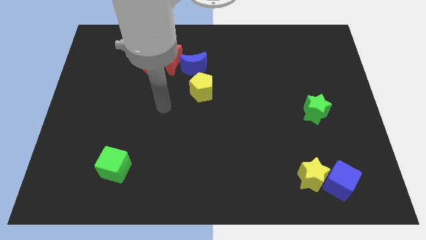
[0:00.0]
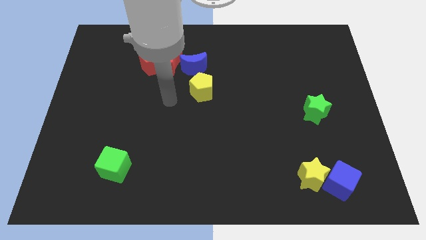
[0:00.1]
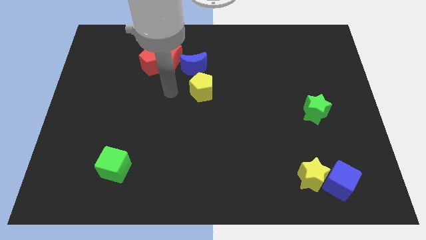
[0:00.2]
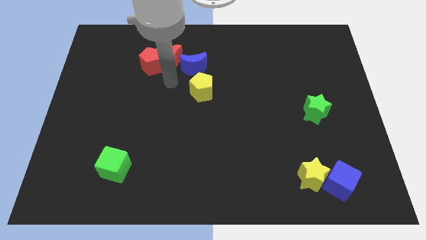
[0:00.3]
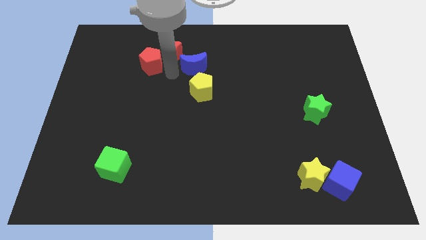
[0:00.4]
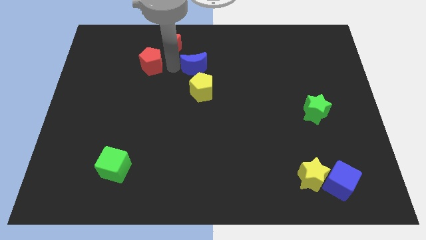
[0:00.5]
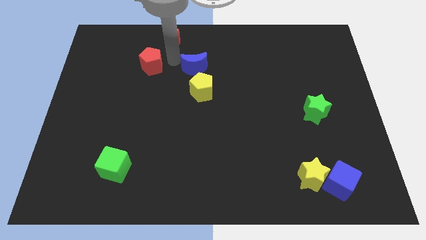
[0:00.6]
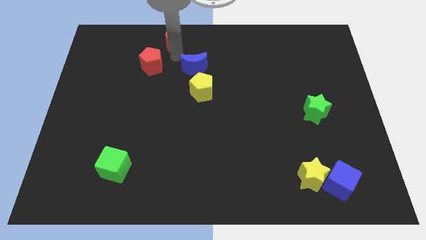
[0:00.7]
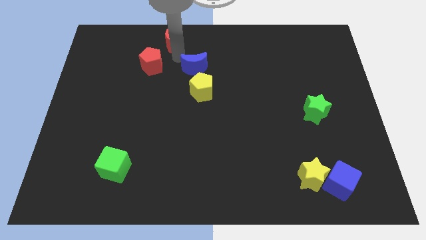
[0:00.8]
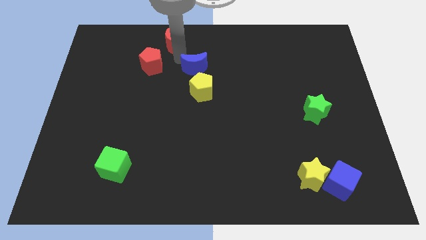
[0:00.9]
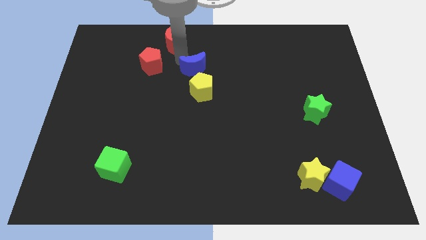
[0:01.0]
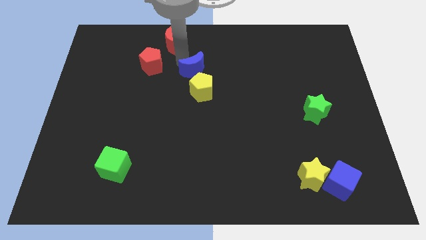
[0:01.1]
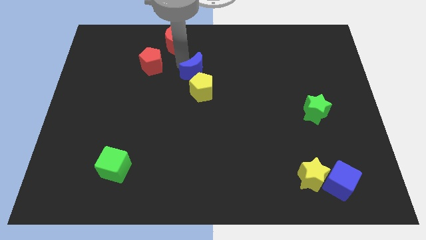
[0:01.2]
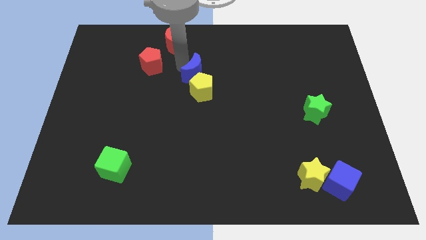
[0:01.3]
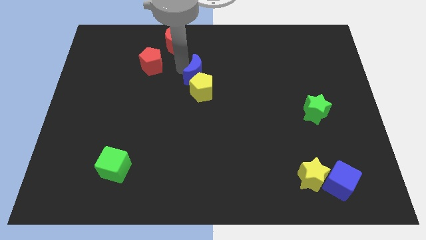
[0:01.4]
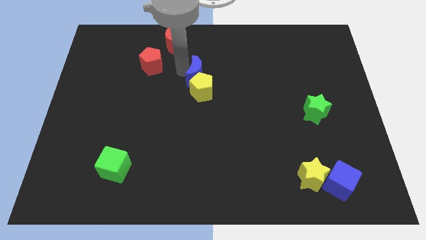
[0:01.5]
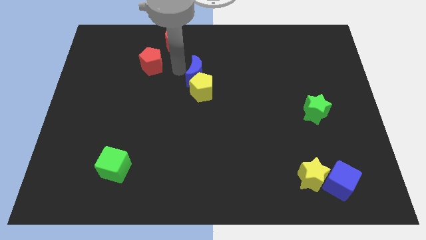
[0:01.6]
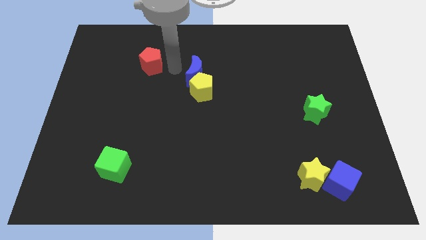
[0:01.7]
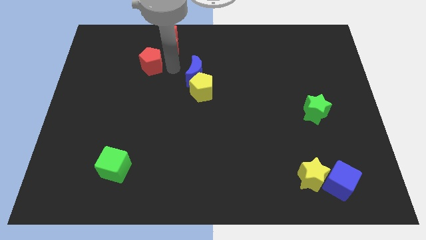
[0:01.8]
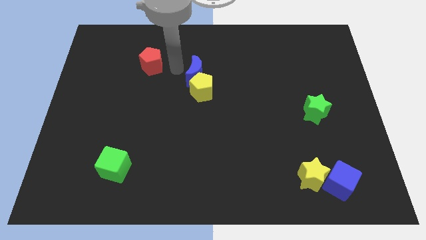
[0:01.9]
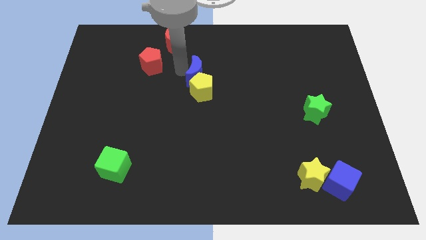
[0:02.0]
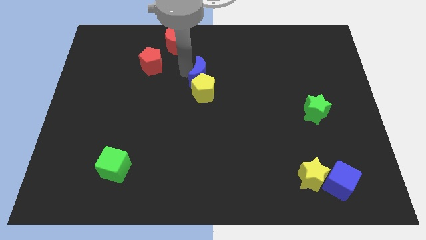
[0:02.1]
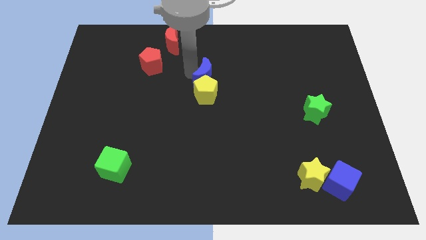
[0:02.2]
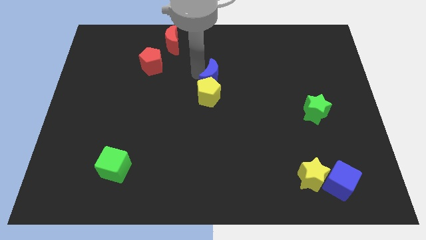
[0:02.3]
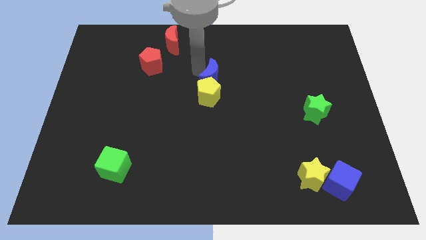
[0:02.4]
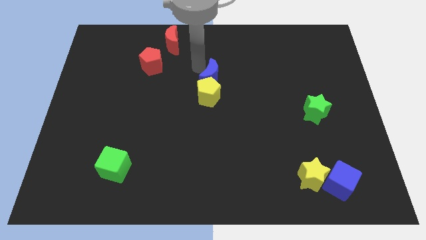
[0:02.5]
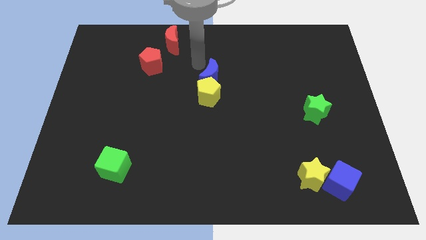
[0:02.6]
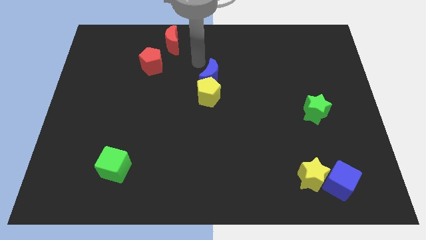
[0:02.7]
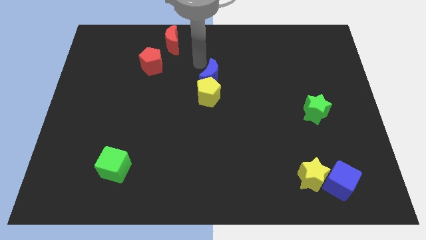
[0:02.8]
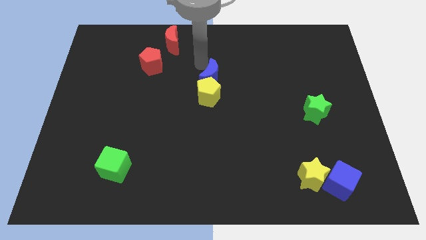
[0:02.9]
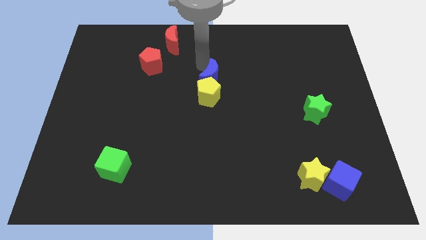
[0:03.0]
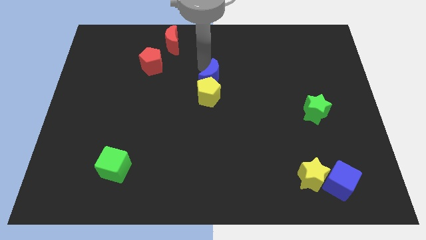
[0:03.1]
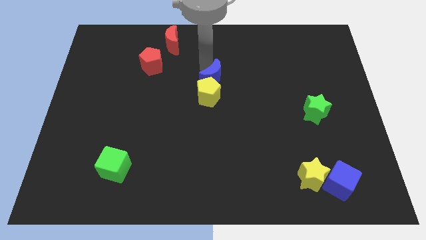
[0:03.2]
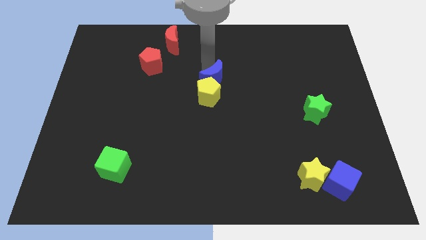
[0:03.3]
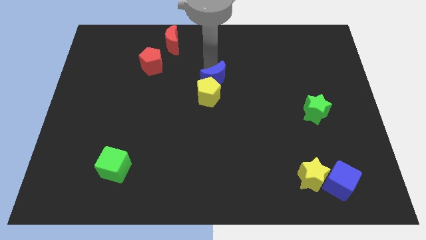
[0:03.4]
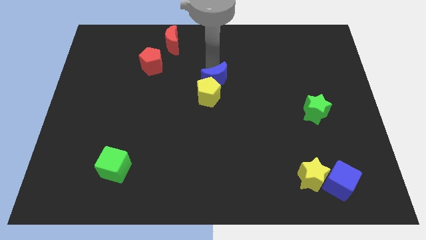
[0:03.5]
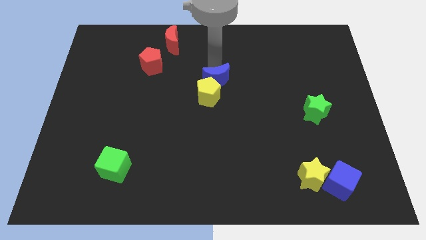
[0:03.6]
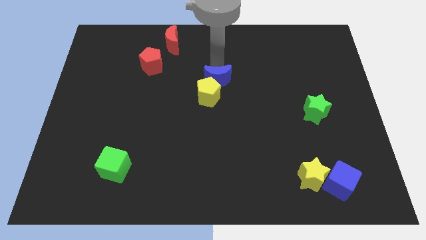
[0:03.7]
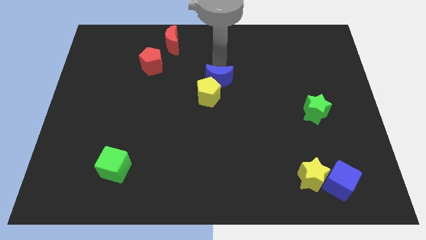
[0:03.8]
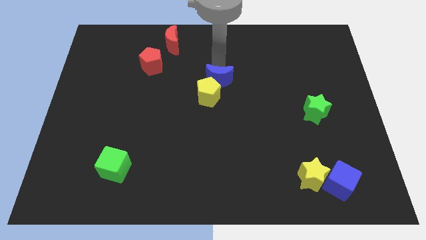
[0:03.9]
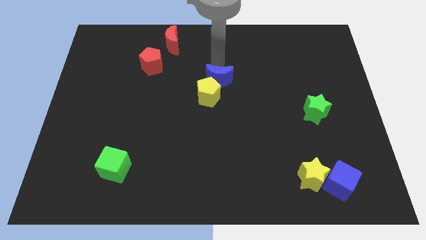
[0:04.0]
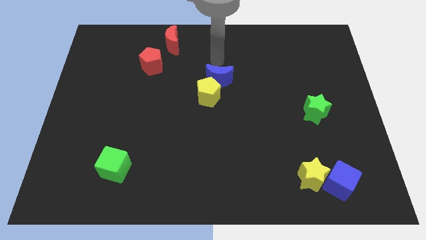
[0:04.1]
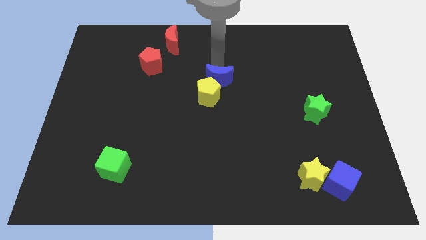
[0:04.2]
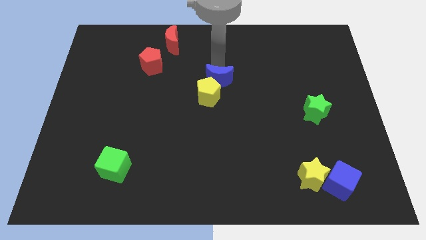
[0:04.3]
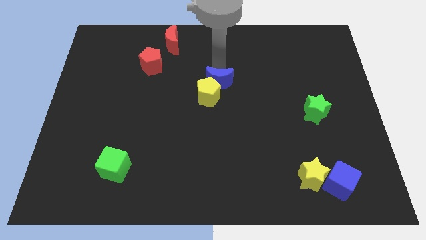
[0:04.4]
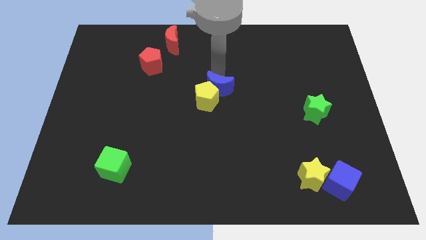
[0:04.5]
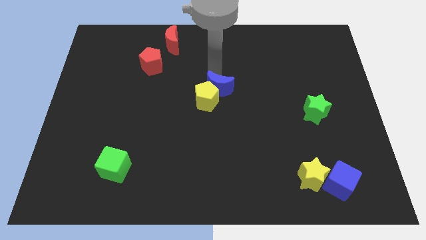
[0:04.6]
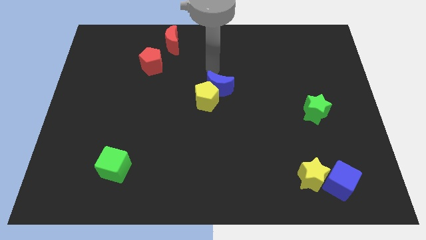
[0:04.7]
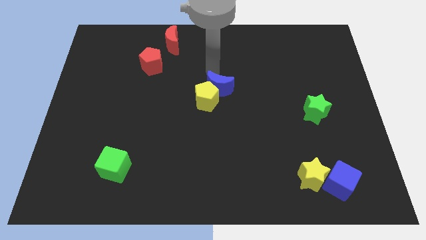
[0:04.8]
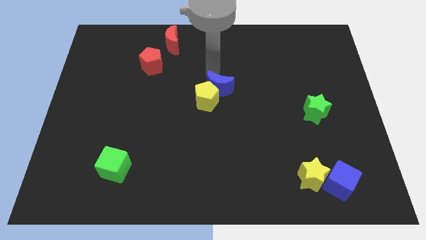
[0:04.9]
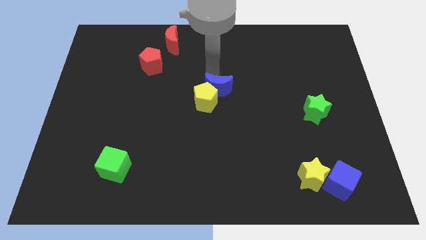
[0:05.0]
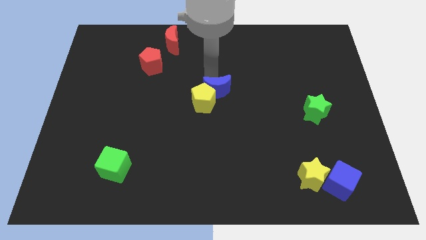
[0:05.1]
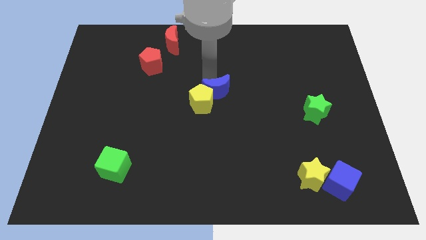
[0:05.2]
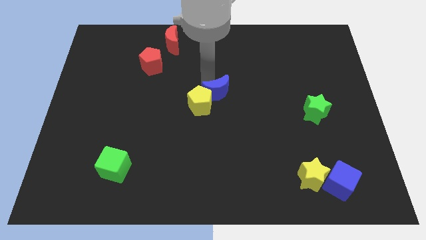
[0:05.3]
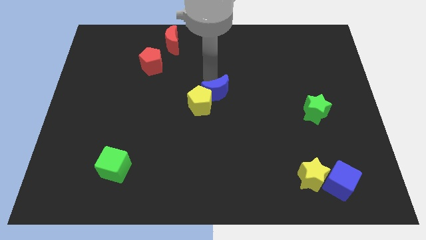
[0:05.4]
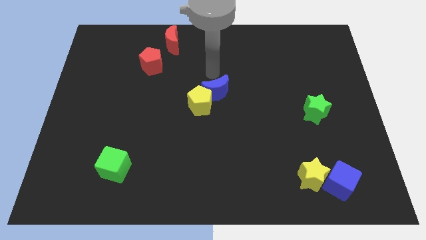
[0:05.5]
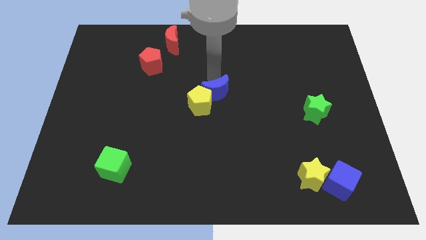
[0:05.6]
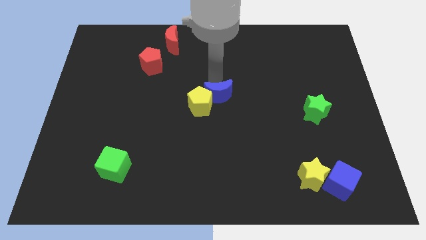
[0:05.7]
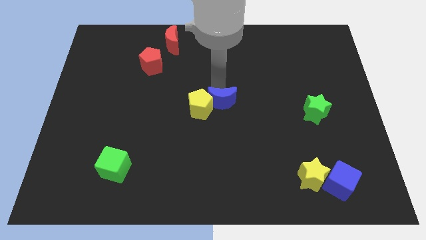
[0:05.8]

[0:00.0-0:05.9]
move the blue moon diagonally down and to the right of the yellow pentagon

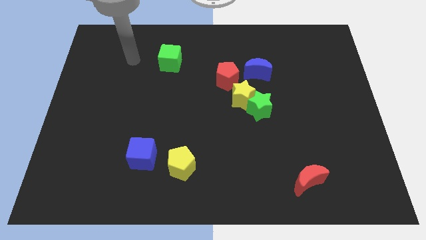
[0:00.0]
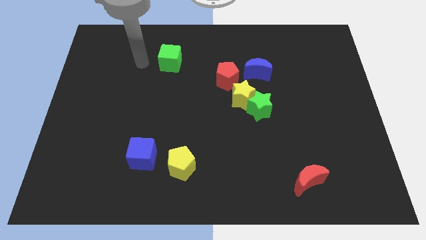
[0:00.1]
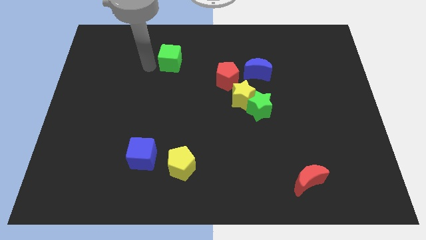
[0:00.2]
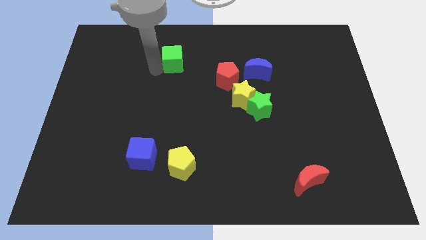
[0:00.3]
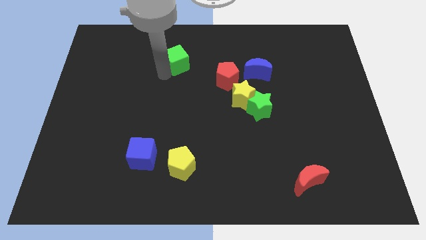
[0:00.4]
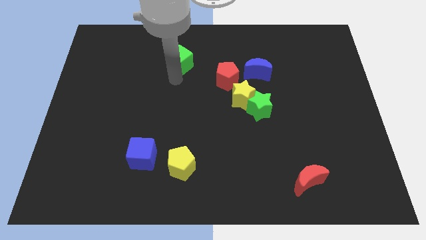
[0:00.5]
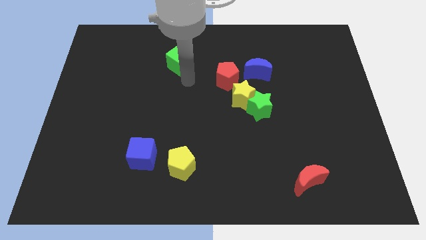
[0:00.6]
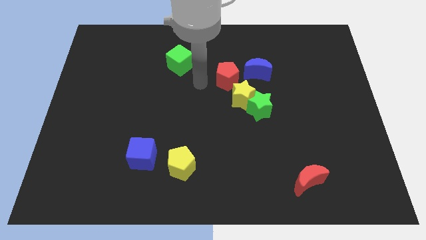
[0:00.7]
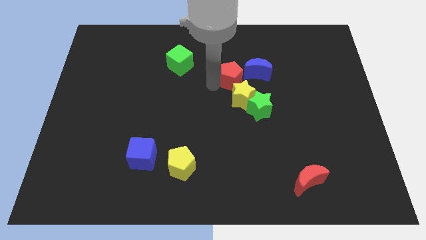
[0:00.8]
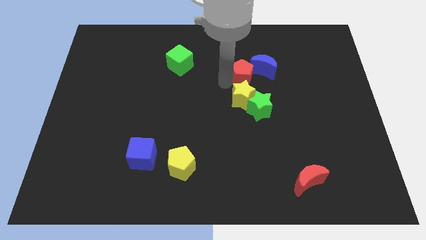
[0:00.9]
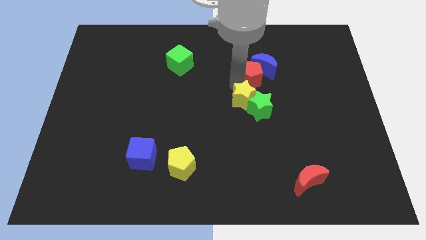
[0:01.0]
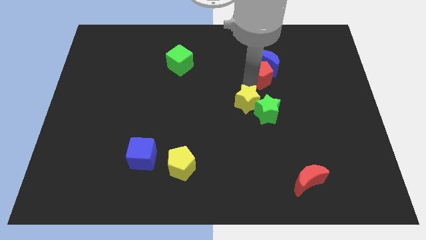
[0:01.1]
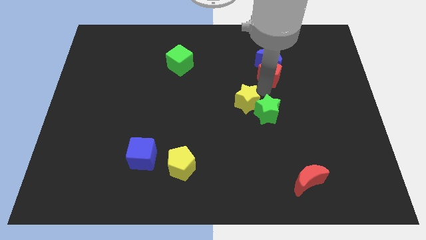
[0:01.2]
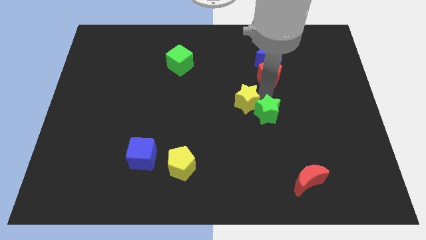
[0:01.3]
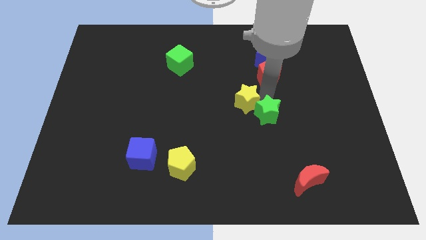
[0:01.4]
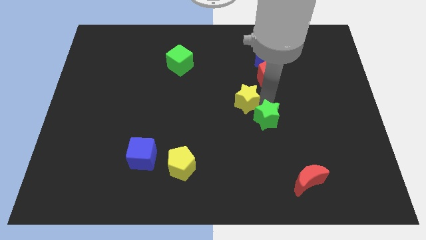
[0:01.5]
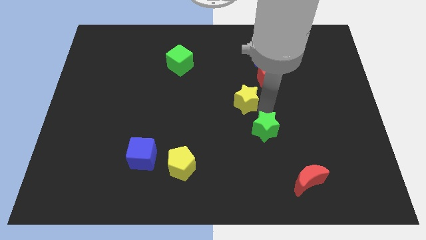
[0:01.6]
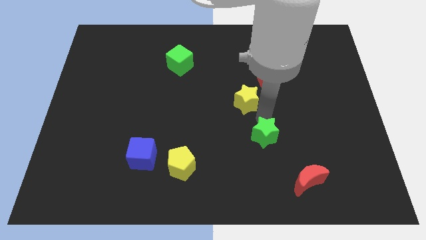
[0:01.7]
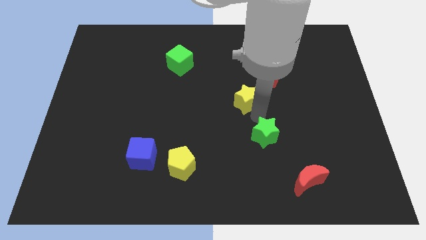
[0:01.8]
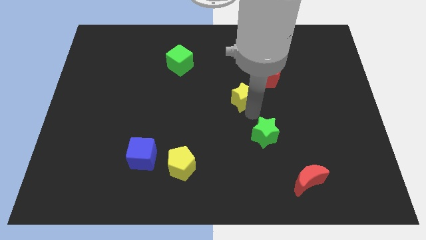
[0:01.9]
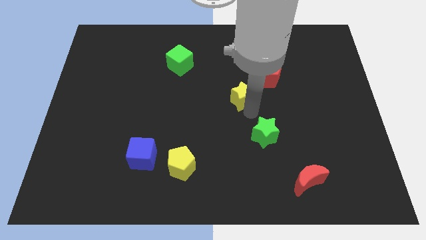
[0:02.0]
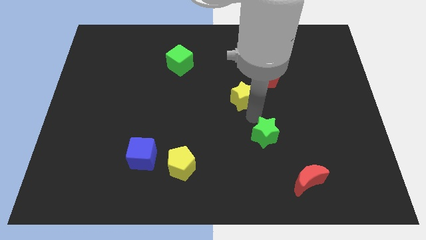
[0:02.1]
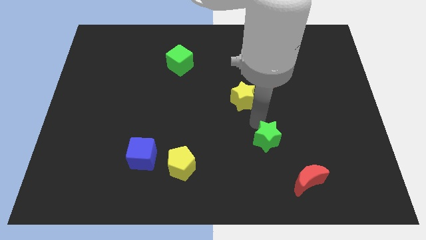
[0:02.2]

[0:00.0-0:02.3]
move the green star to the top left of the red moon

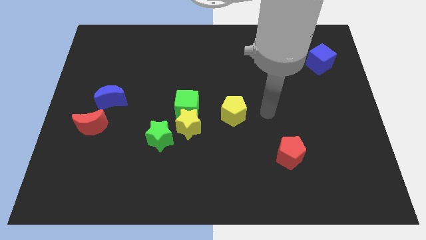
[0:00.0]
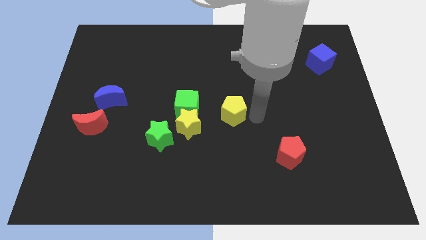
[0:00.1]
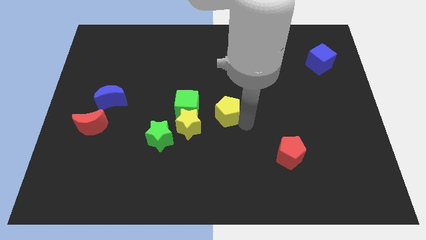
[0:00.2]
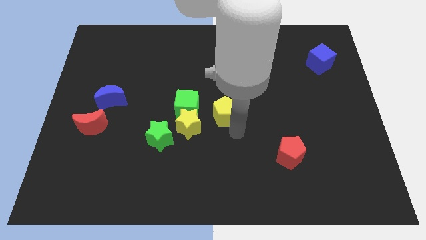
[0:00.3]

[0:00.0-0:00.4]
slide the green cube diagonally up and to the left of the yellow pentagon
